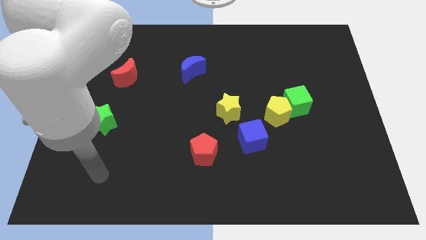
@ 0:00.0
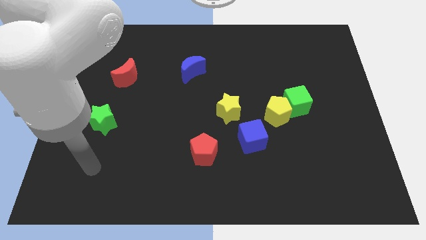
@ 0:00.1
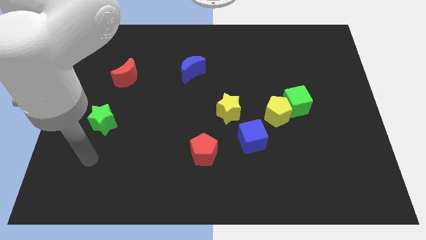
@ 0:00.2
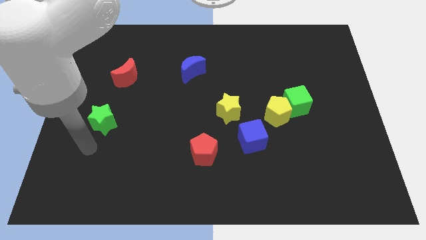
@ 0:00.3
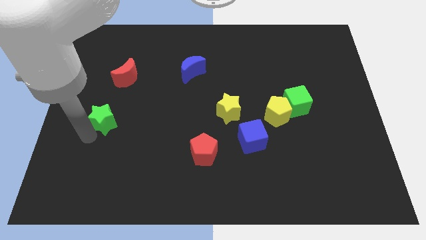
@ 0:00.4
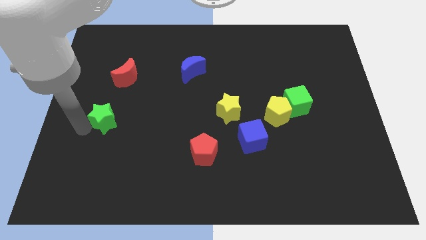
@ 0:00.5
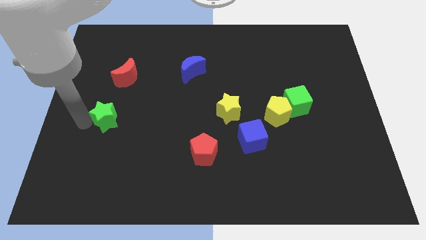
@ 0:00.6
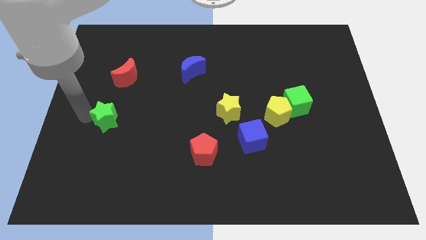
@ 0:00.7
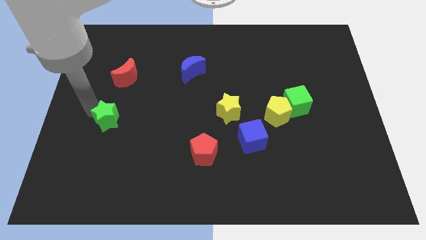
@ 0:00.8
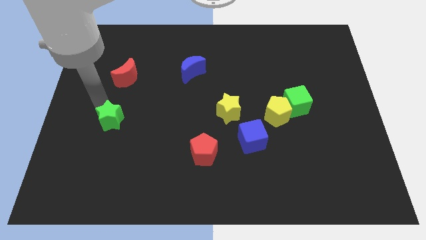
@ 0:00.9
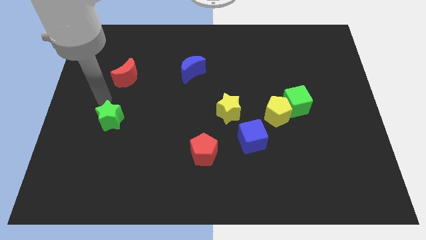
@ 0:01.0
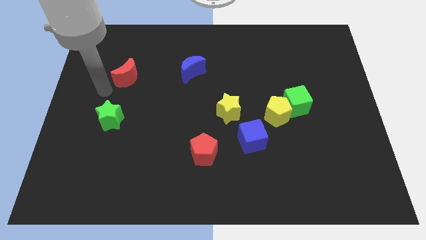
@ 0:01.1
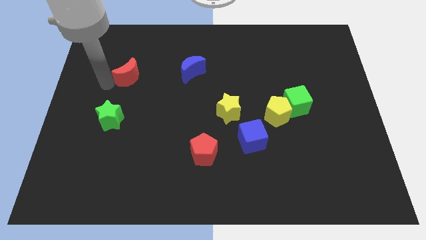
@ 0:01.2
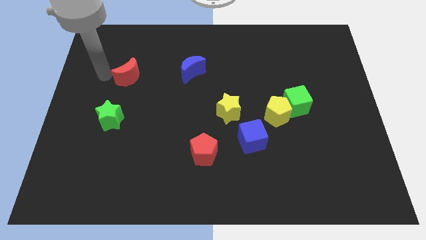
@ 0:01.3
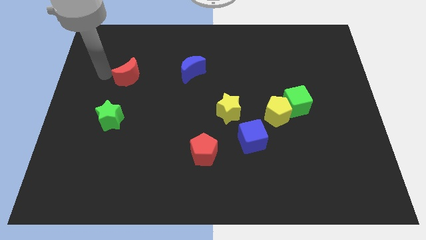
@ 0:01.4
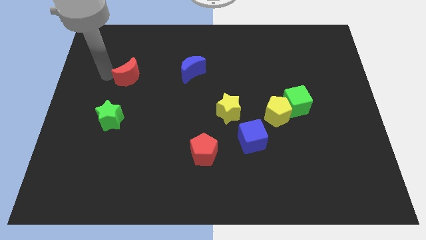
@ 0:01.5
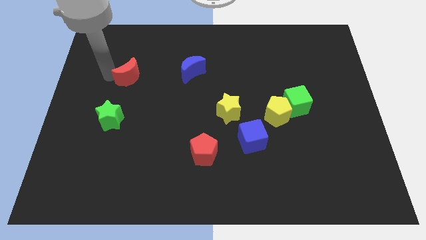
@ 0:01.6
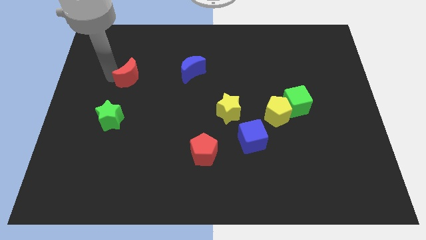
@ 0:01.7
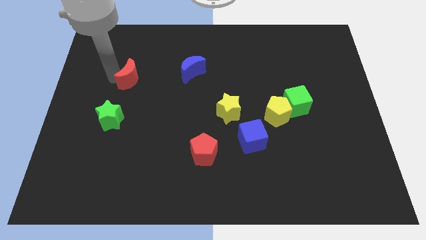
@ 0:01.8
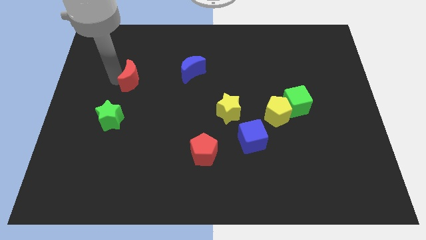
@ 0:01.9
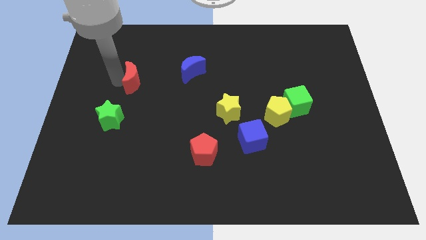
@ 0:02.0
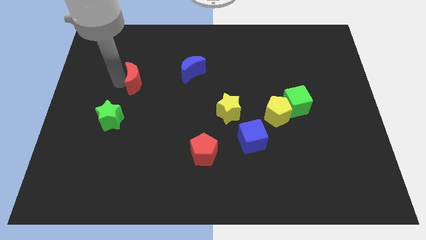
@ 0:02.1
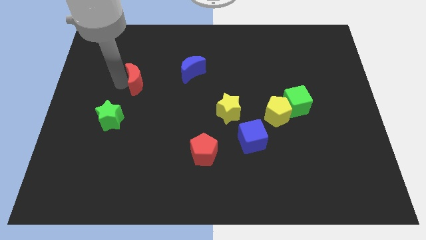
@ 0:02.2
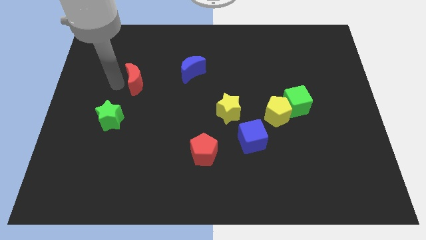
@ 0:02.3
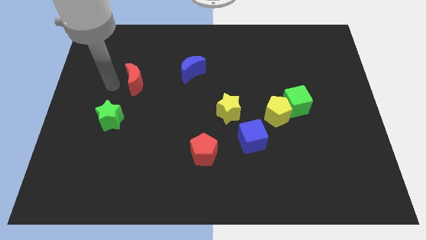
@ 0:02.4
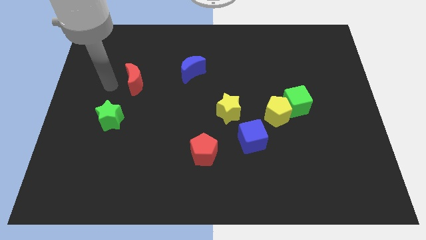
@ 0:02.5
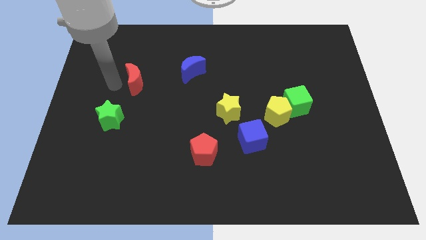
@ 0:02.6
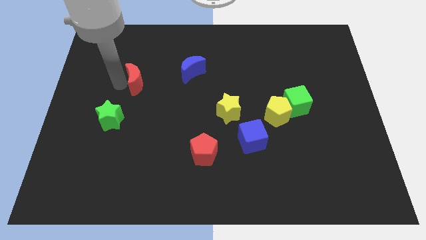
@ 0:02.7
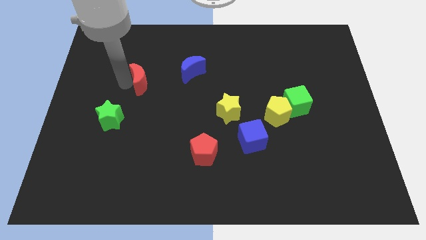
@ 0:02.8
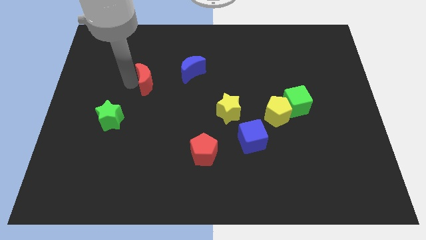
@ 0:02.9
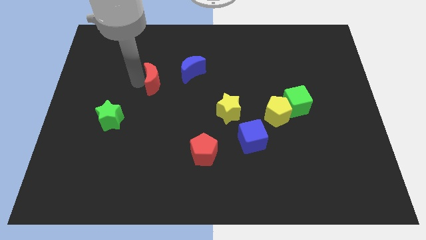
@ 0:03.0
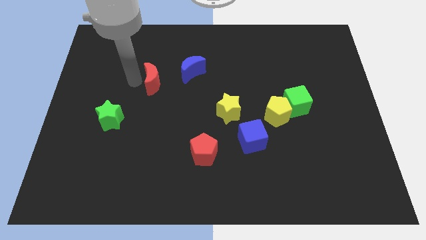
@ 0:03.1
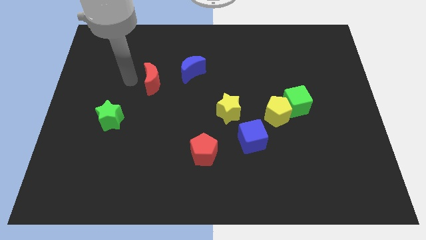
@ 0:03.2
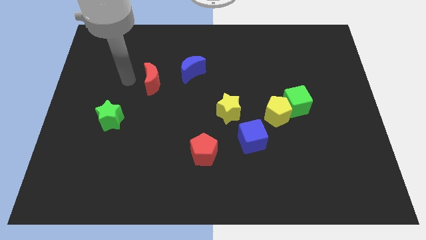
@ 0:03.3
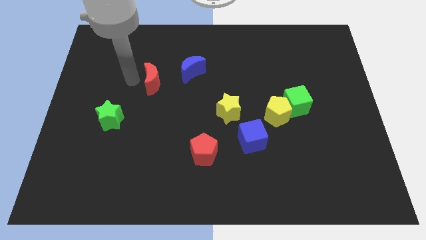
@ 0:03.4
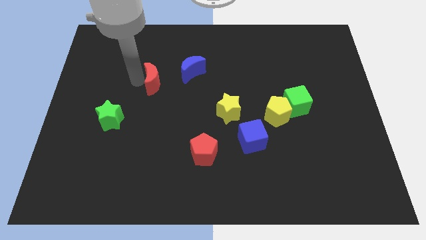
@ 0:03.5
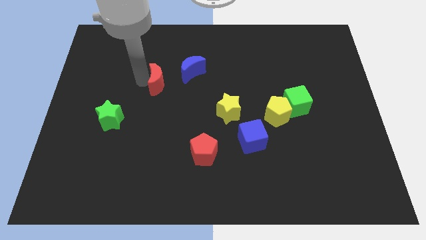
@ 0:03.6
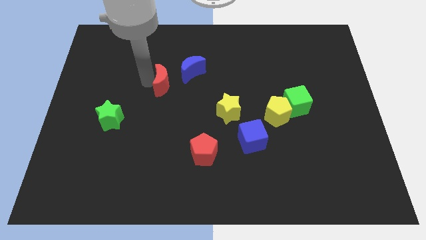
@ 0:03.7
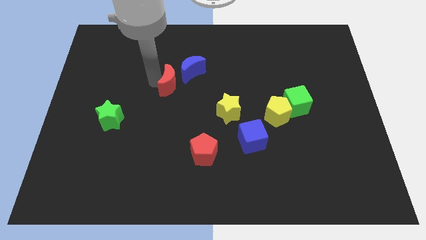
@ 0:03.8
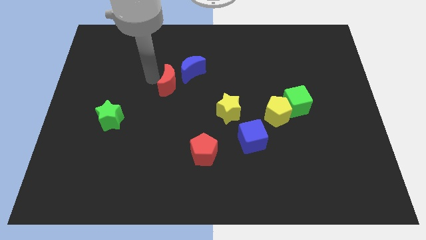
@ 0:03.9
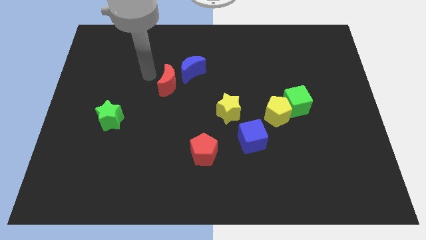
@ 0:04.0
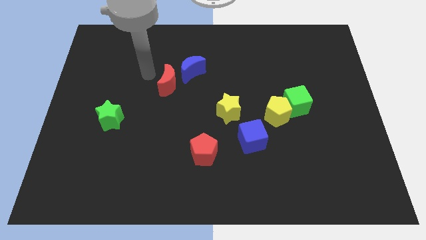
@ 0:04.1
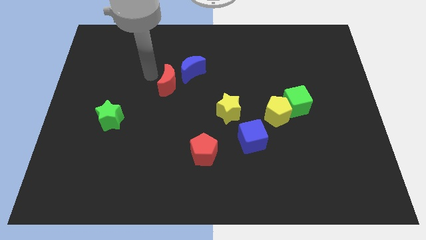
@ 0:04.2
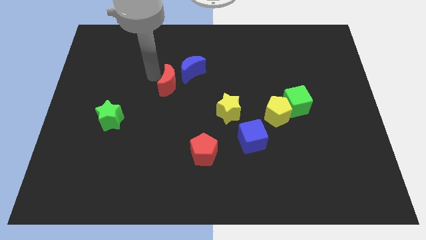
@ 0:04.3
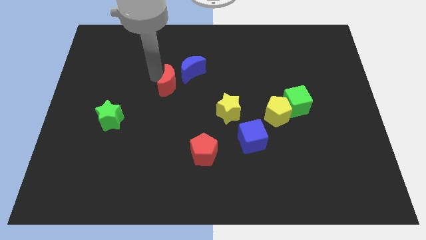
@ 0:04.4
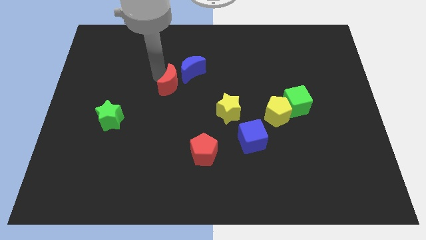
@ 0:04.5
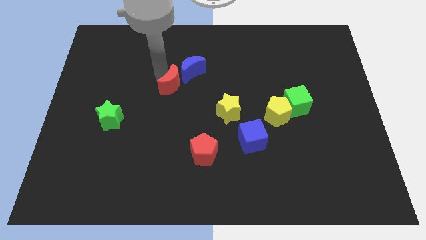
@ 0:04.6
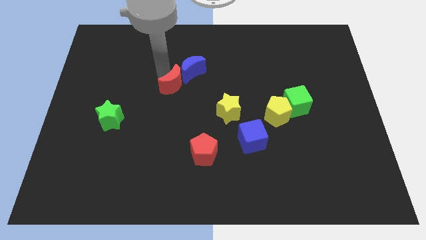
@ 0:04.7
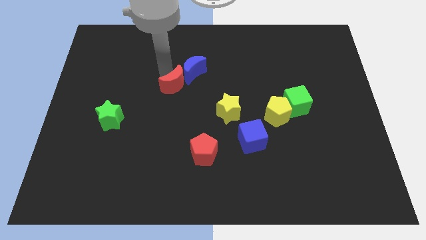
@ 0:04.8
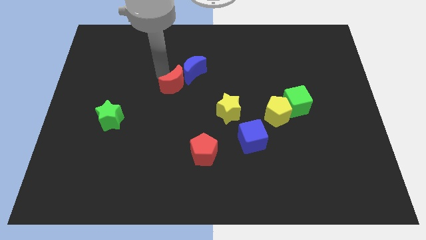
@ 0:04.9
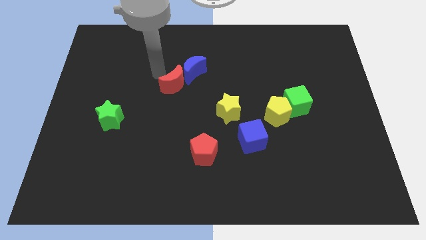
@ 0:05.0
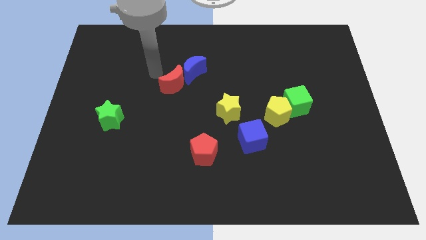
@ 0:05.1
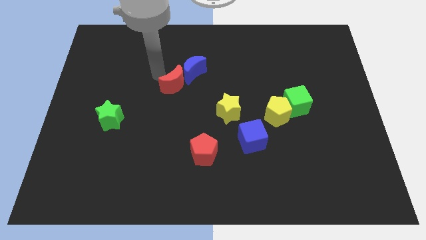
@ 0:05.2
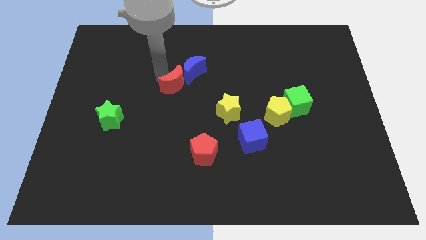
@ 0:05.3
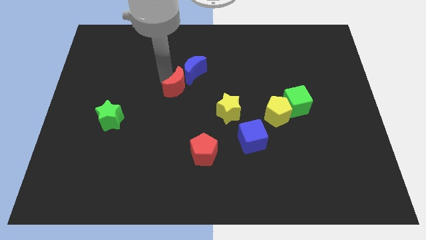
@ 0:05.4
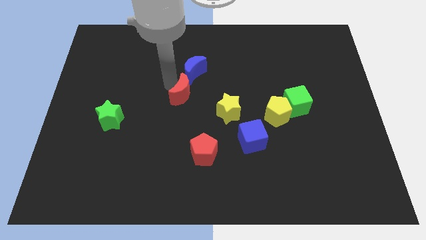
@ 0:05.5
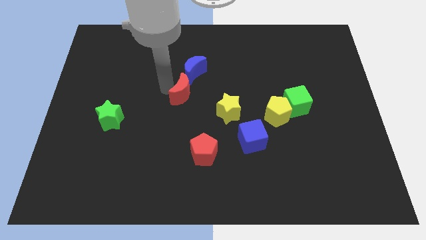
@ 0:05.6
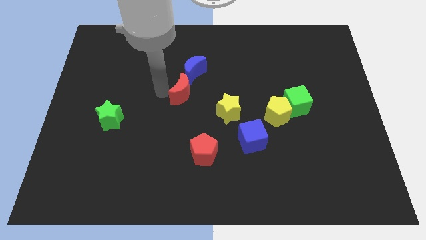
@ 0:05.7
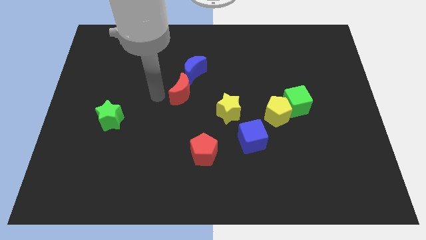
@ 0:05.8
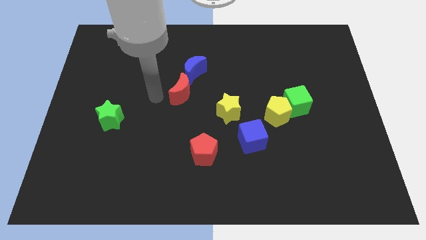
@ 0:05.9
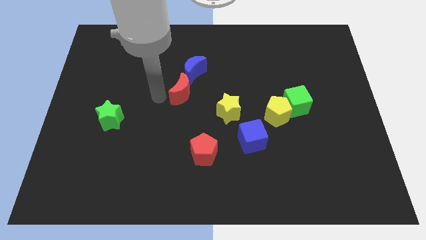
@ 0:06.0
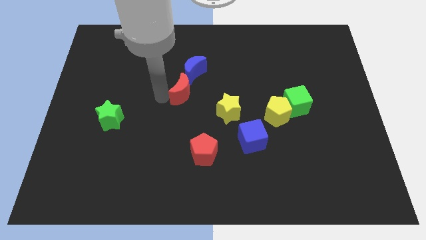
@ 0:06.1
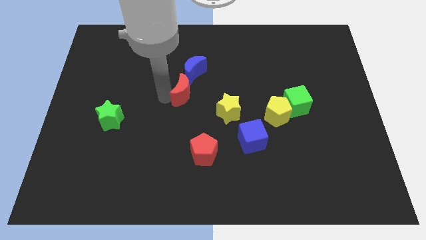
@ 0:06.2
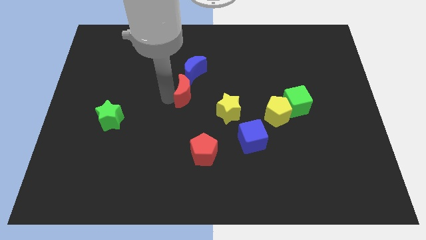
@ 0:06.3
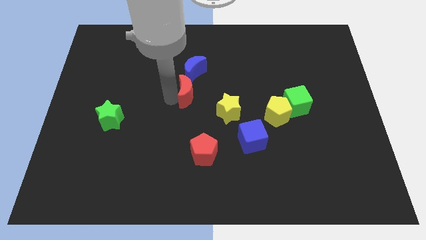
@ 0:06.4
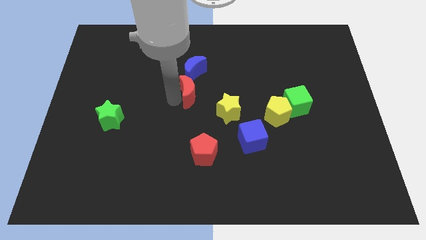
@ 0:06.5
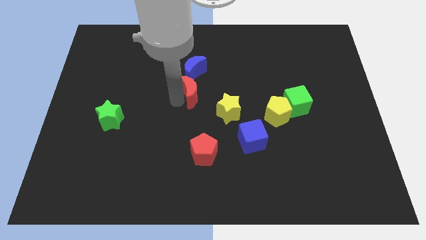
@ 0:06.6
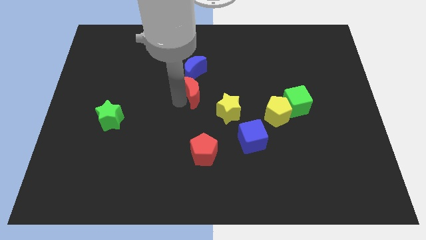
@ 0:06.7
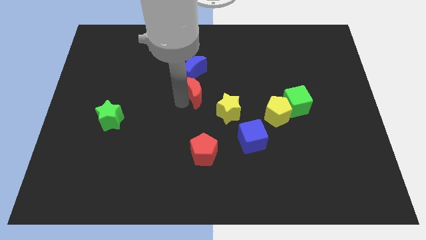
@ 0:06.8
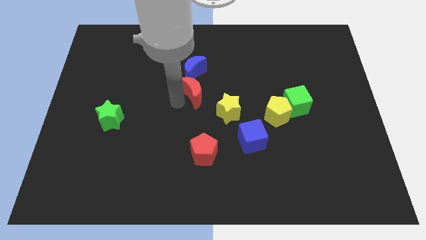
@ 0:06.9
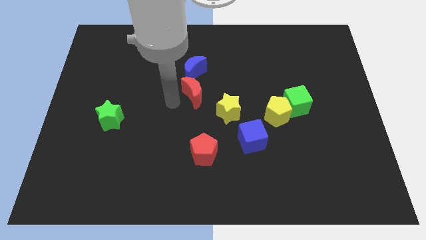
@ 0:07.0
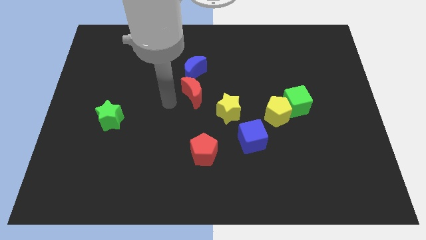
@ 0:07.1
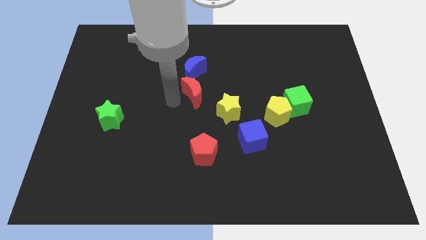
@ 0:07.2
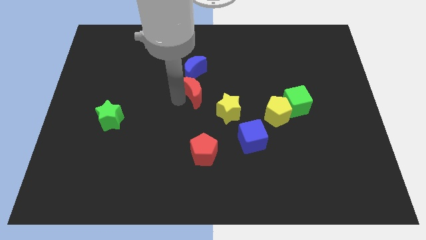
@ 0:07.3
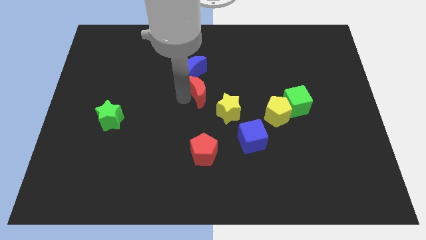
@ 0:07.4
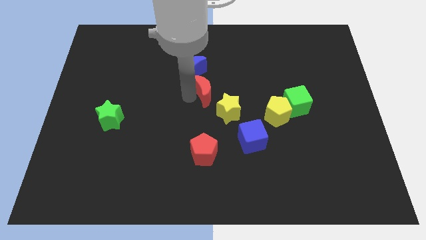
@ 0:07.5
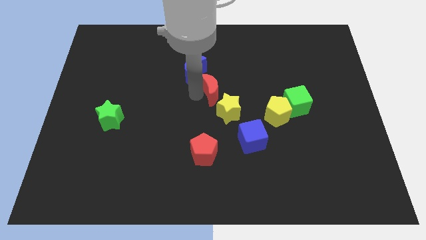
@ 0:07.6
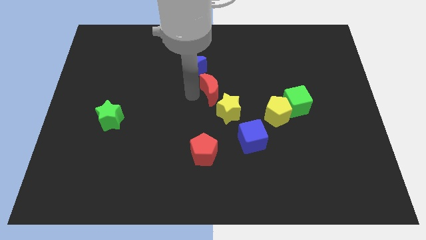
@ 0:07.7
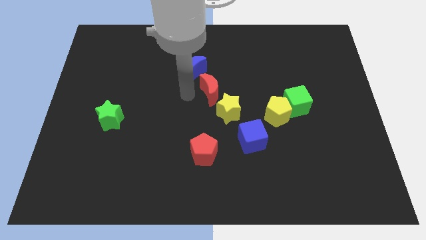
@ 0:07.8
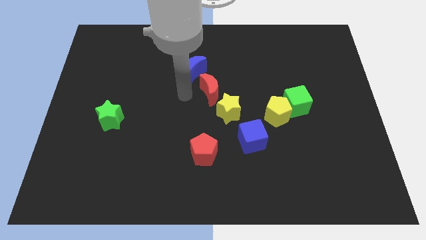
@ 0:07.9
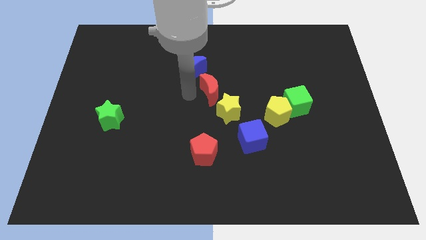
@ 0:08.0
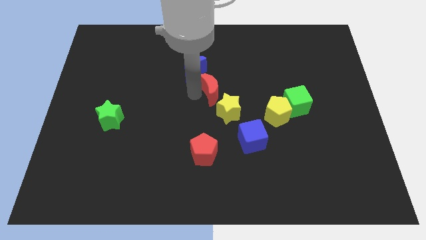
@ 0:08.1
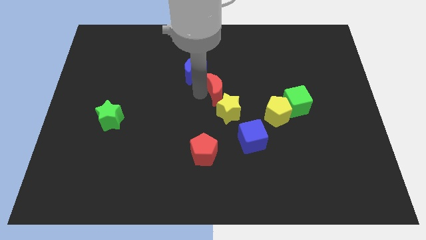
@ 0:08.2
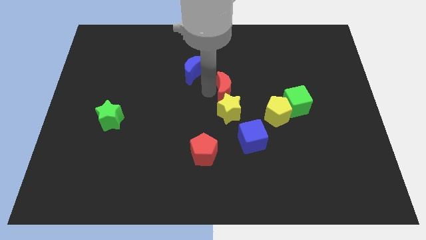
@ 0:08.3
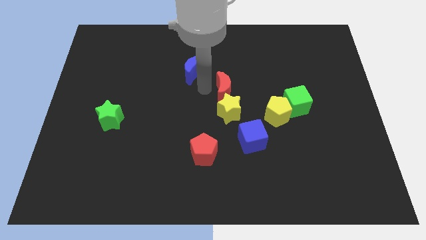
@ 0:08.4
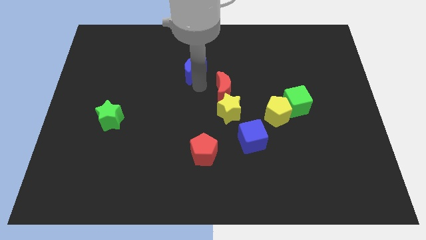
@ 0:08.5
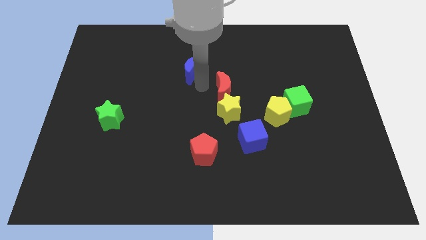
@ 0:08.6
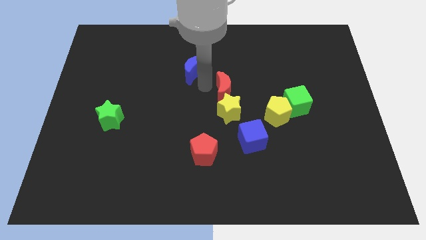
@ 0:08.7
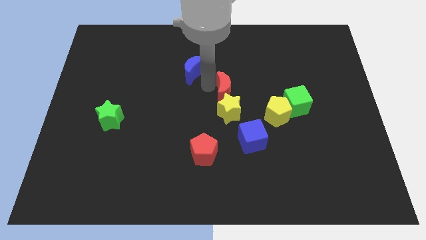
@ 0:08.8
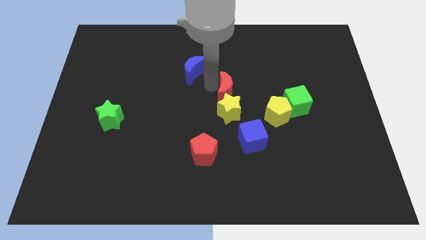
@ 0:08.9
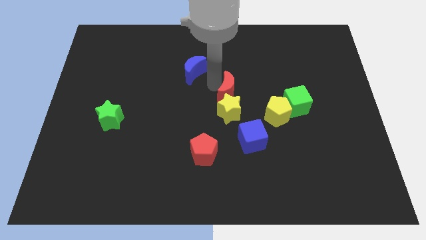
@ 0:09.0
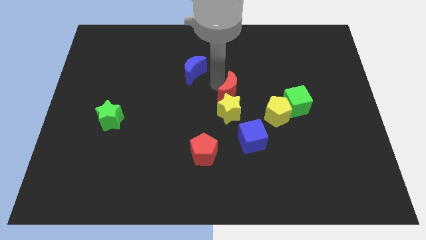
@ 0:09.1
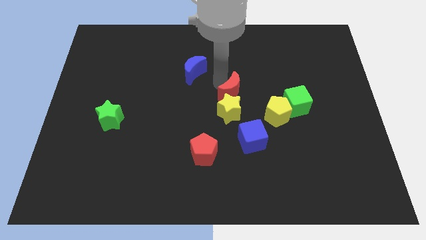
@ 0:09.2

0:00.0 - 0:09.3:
slide the red moon to the top left side of the yellow pentagon
